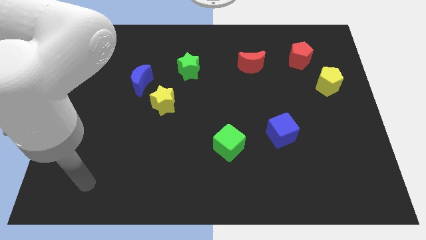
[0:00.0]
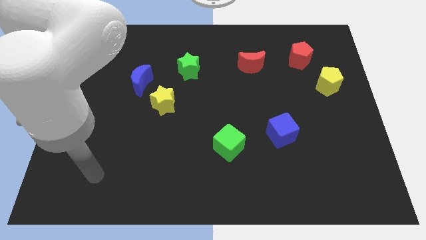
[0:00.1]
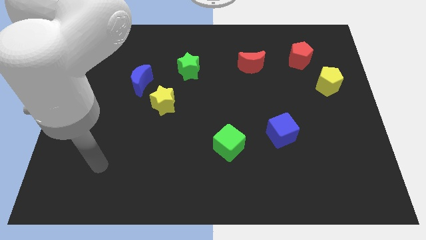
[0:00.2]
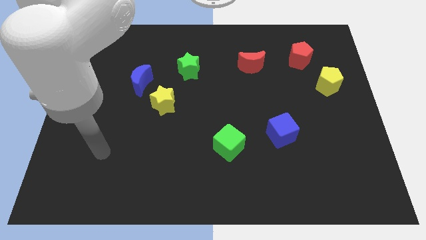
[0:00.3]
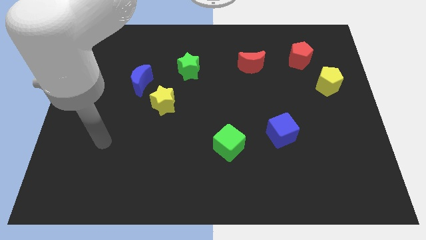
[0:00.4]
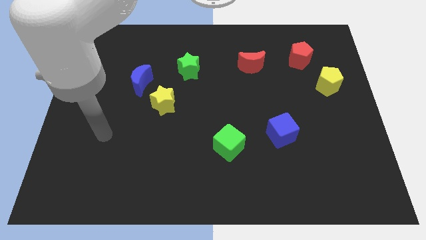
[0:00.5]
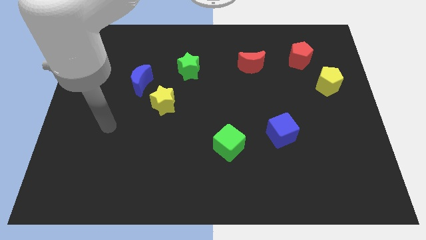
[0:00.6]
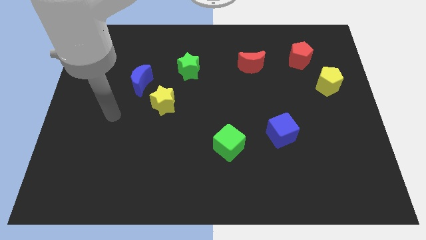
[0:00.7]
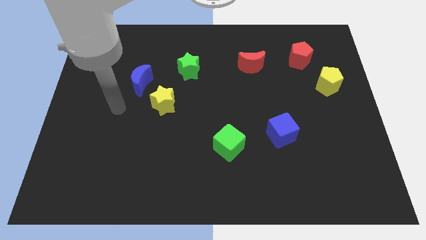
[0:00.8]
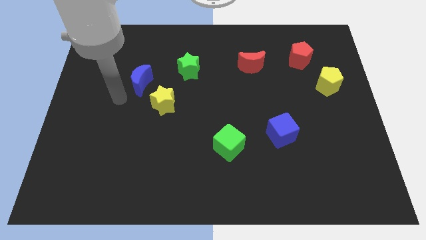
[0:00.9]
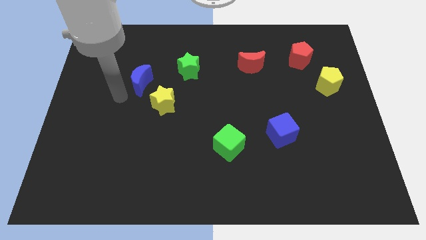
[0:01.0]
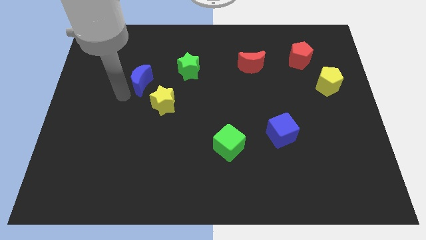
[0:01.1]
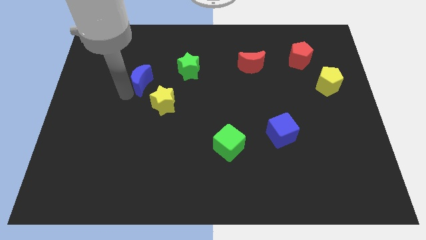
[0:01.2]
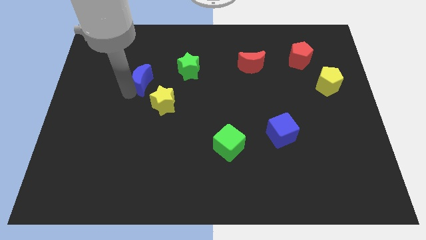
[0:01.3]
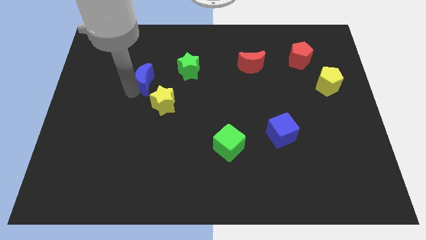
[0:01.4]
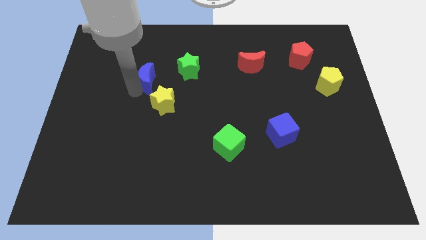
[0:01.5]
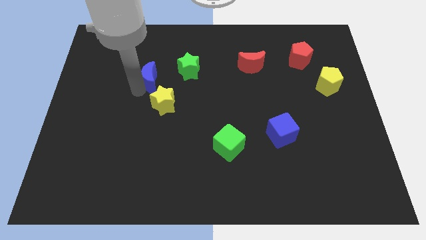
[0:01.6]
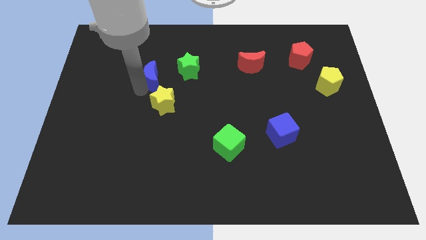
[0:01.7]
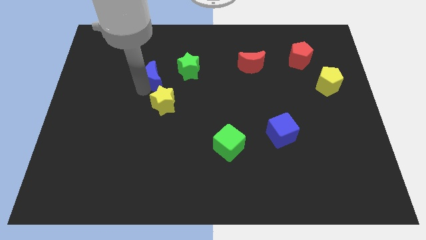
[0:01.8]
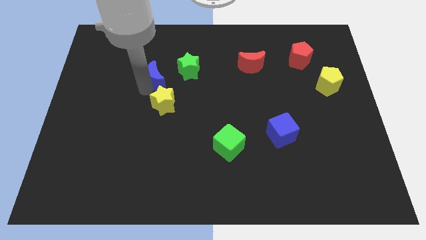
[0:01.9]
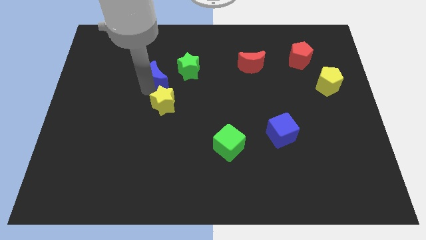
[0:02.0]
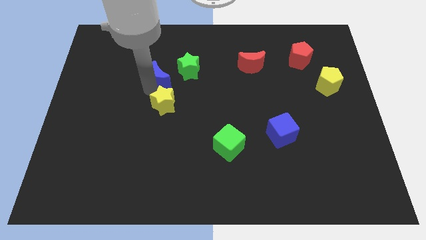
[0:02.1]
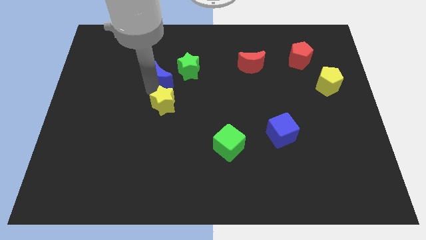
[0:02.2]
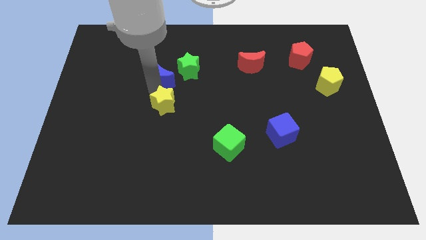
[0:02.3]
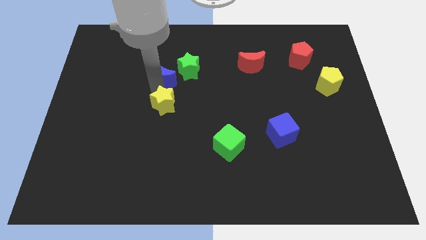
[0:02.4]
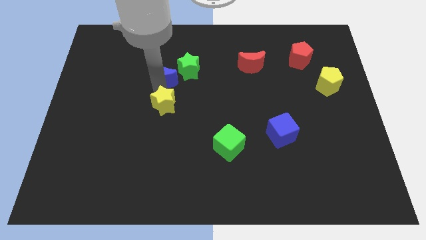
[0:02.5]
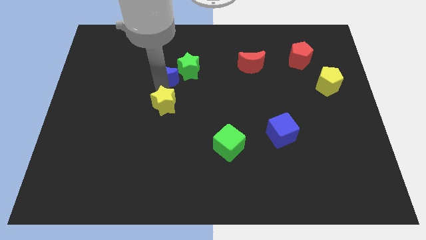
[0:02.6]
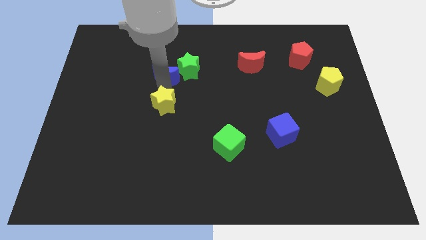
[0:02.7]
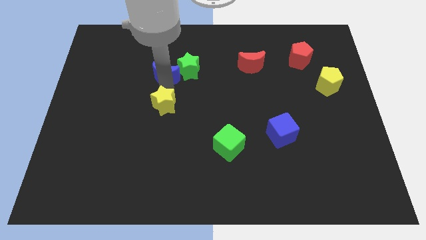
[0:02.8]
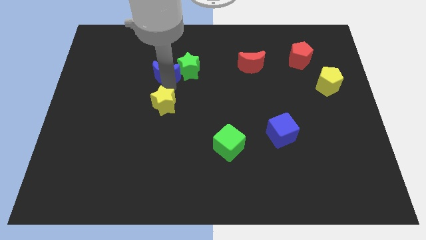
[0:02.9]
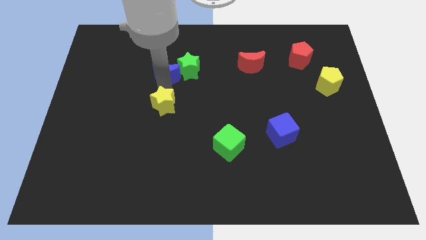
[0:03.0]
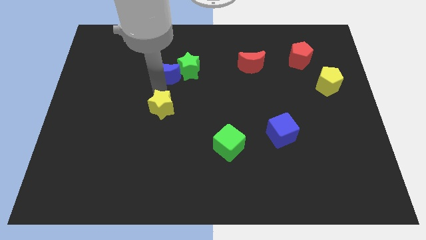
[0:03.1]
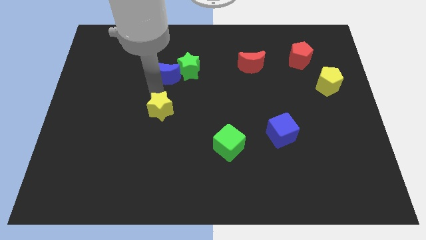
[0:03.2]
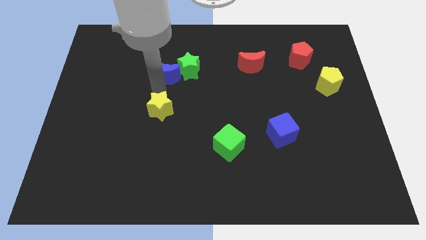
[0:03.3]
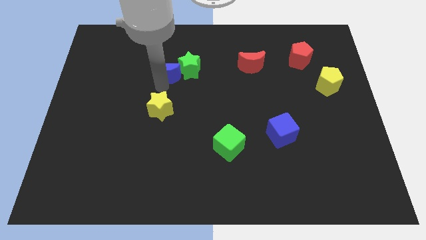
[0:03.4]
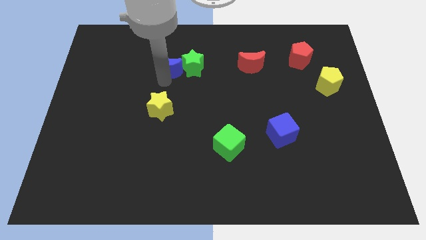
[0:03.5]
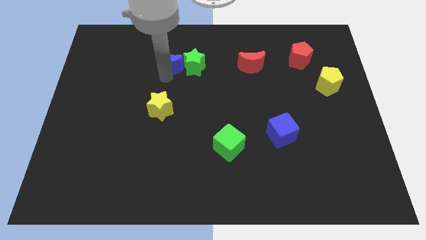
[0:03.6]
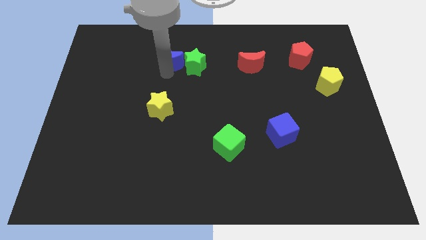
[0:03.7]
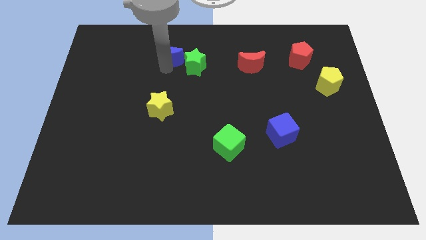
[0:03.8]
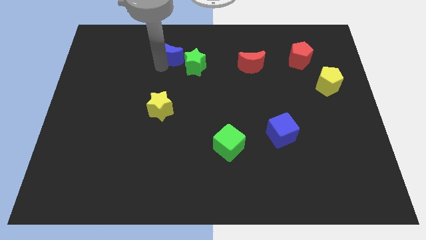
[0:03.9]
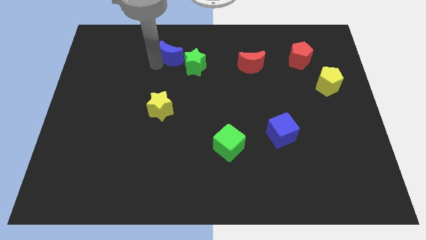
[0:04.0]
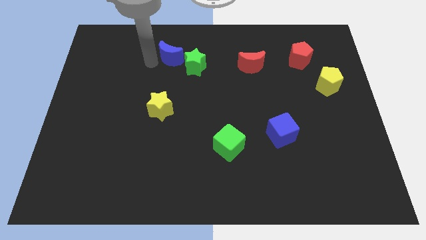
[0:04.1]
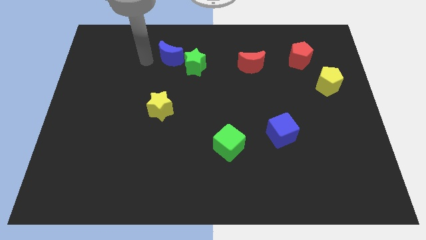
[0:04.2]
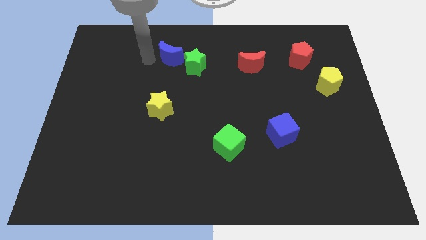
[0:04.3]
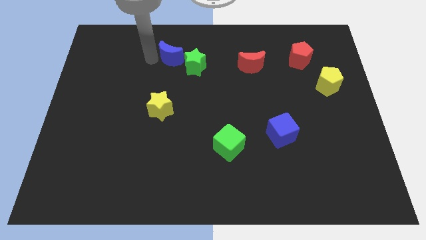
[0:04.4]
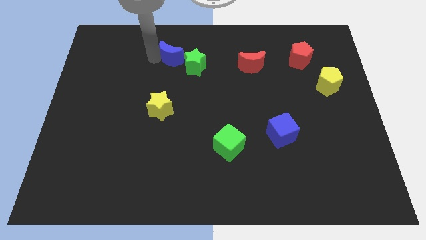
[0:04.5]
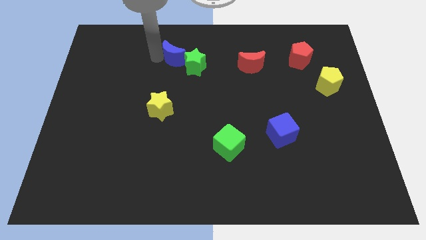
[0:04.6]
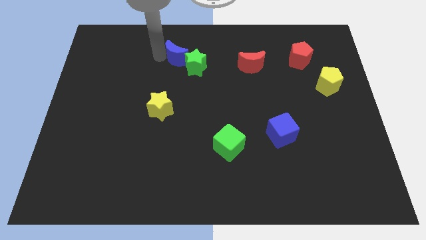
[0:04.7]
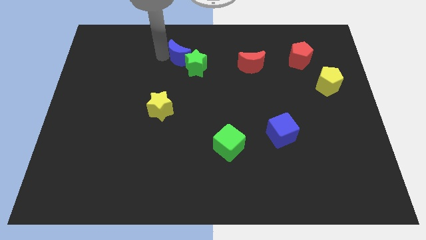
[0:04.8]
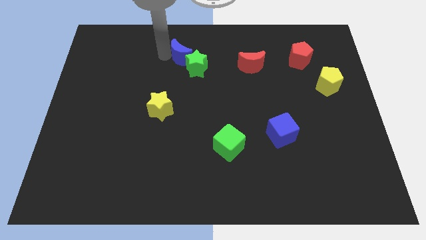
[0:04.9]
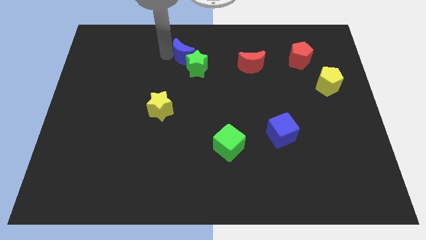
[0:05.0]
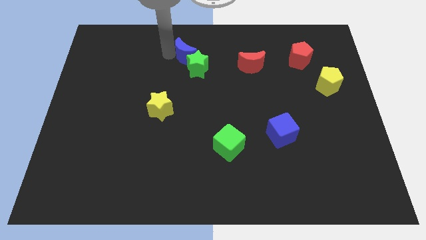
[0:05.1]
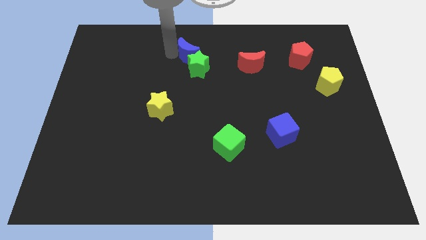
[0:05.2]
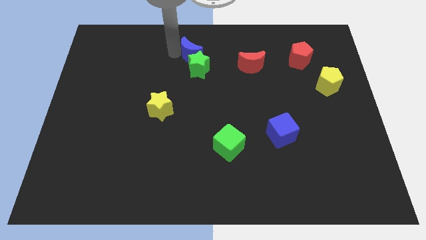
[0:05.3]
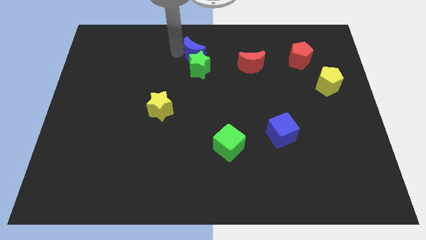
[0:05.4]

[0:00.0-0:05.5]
push the blue moon to the top side
